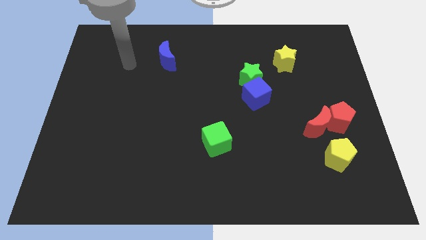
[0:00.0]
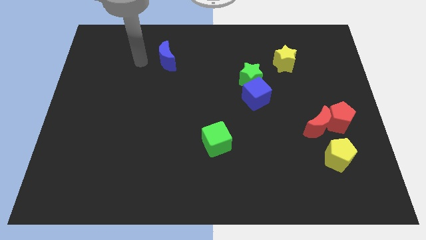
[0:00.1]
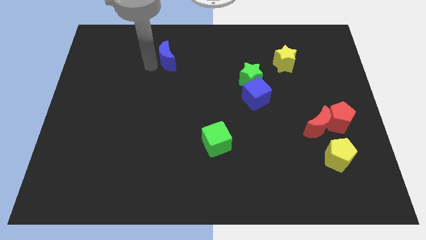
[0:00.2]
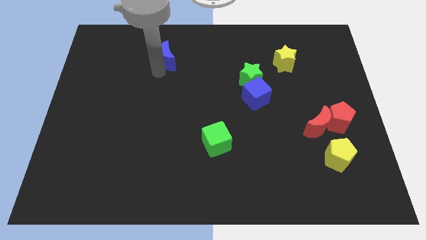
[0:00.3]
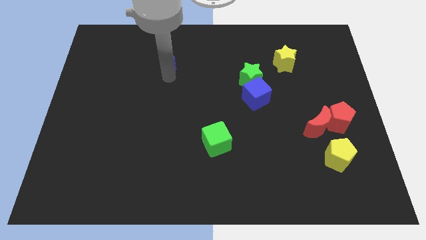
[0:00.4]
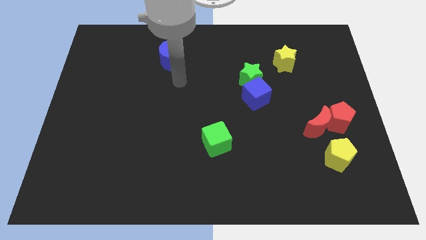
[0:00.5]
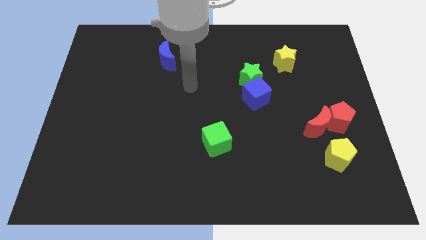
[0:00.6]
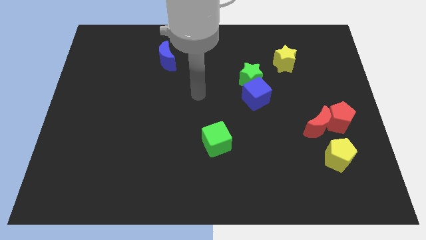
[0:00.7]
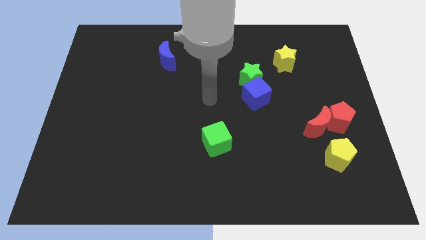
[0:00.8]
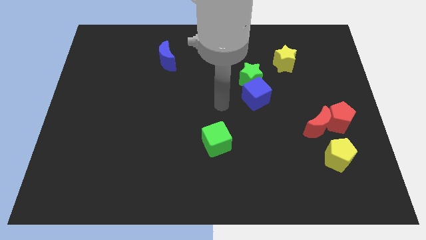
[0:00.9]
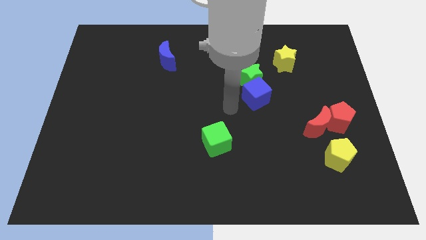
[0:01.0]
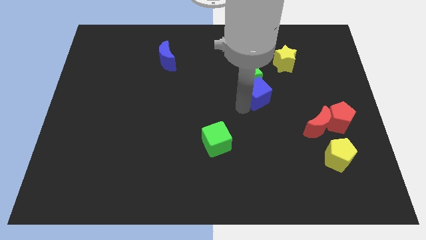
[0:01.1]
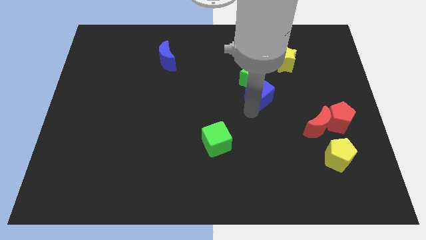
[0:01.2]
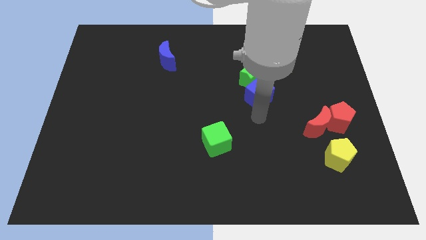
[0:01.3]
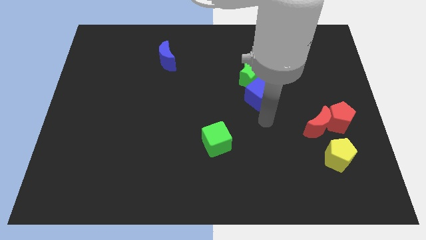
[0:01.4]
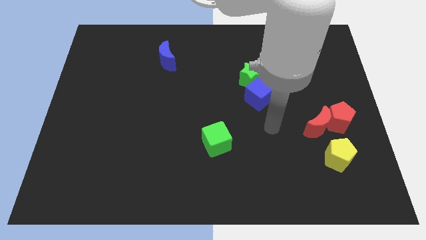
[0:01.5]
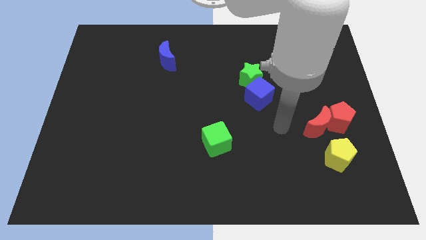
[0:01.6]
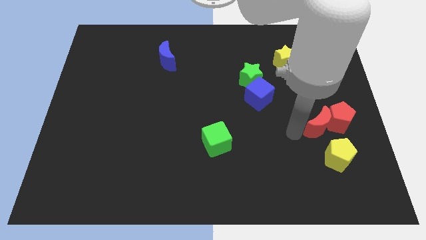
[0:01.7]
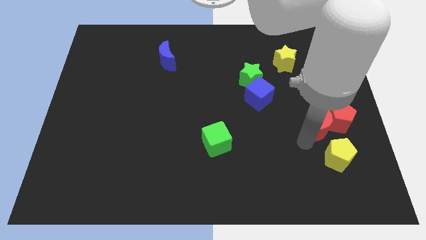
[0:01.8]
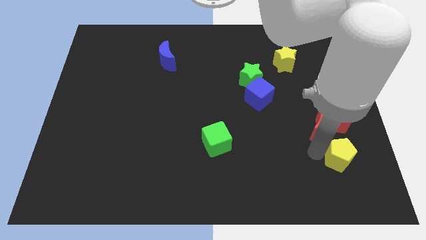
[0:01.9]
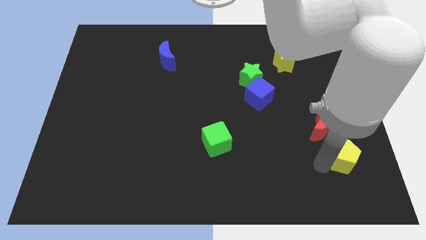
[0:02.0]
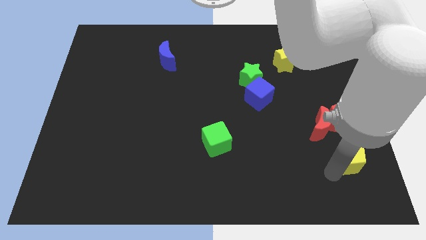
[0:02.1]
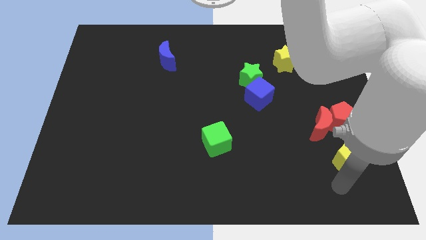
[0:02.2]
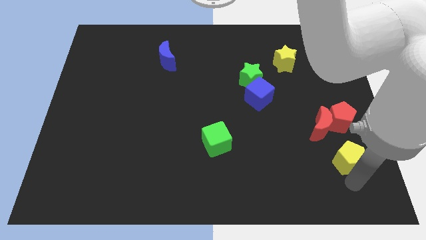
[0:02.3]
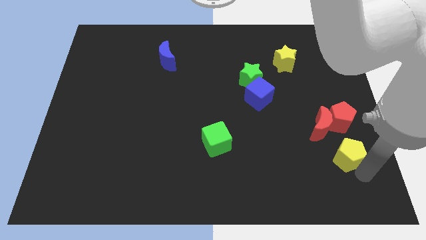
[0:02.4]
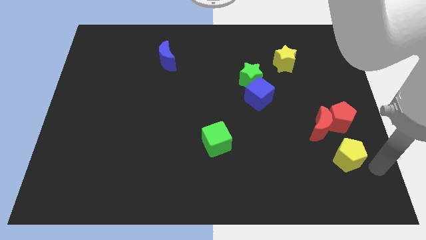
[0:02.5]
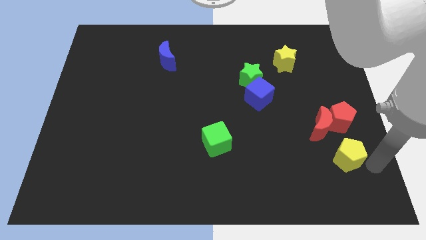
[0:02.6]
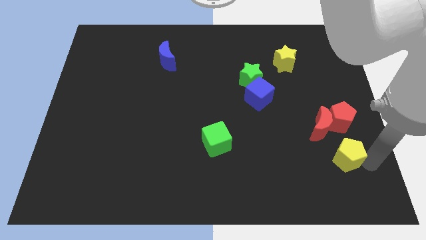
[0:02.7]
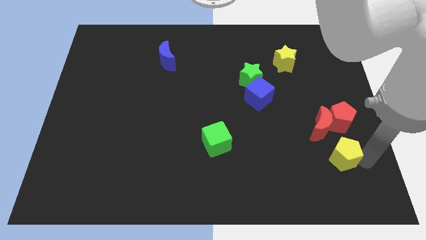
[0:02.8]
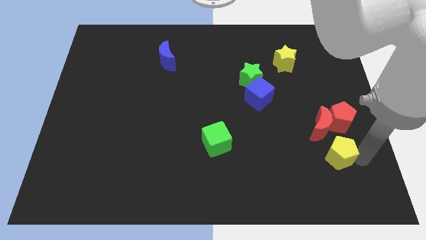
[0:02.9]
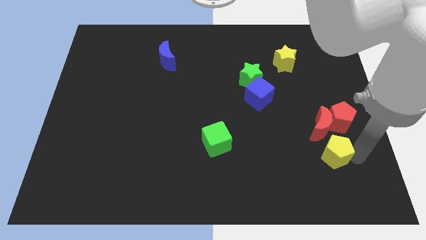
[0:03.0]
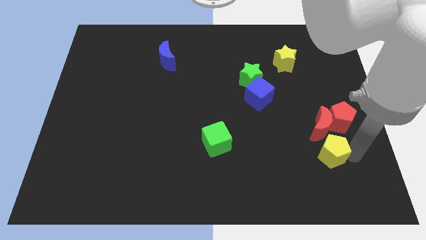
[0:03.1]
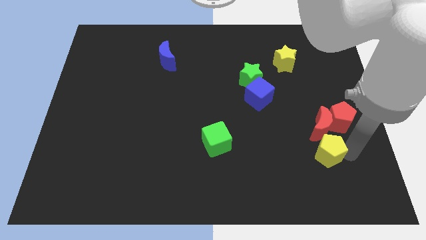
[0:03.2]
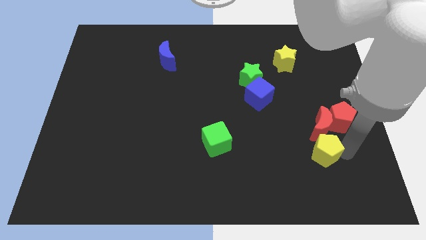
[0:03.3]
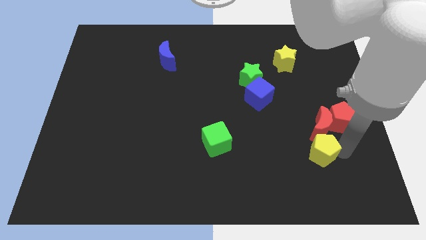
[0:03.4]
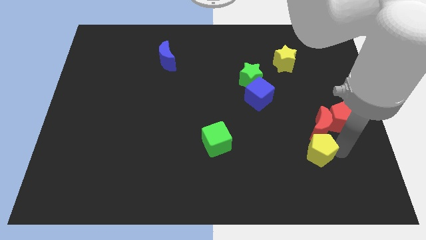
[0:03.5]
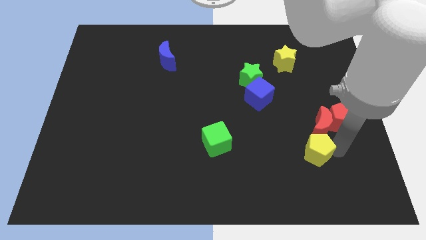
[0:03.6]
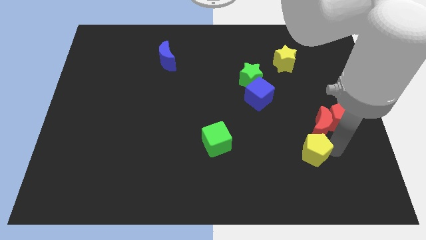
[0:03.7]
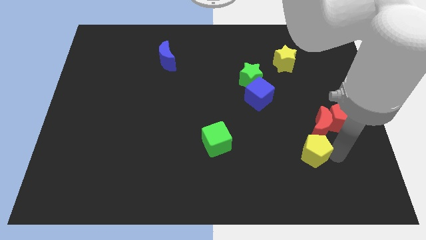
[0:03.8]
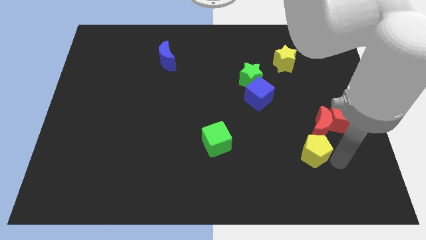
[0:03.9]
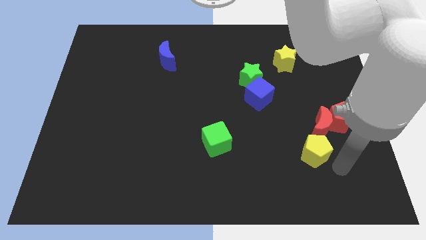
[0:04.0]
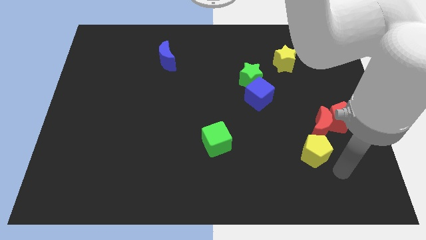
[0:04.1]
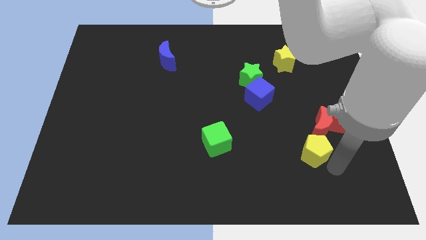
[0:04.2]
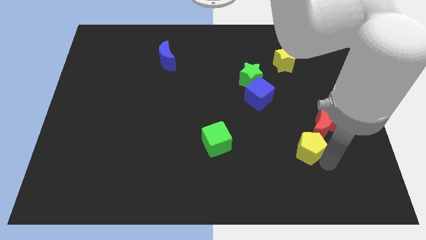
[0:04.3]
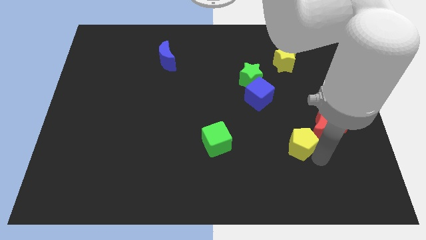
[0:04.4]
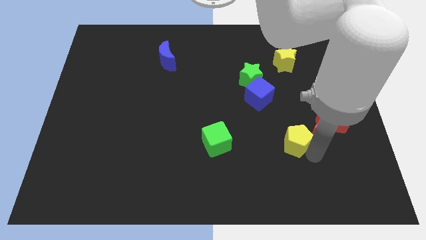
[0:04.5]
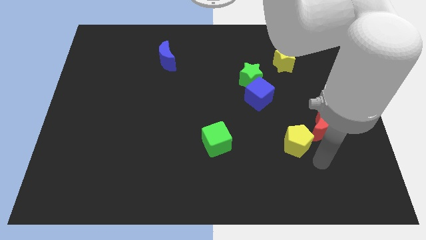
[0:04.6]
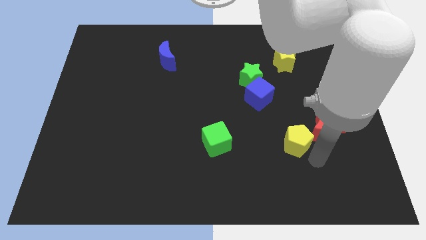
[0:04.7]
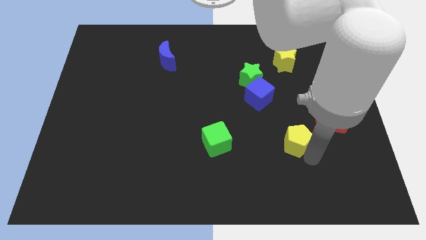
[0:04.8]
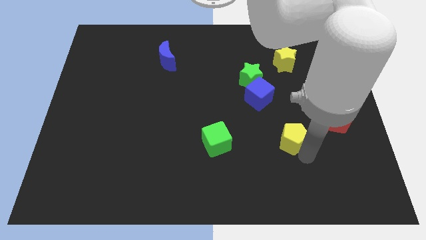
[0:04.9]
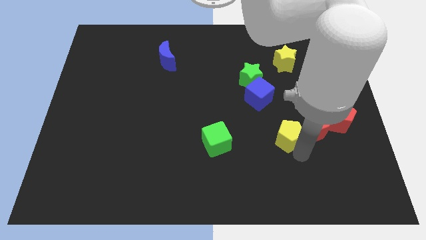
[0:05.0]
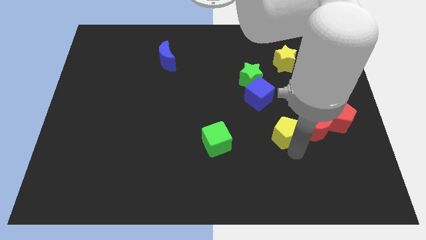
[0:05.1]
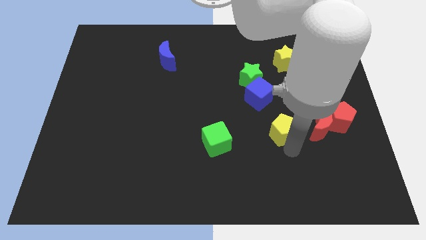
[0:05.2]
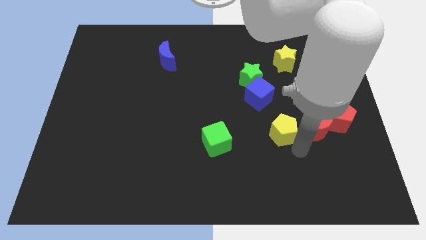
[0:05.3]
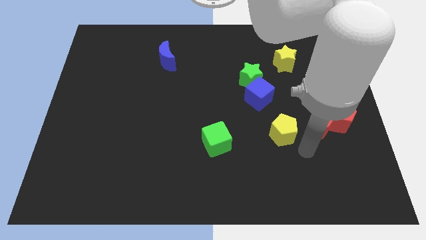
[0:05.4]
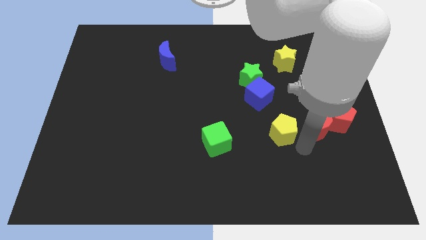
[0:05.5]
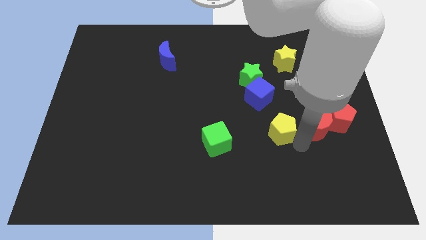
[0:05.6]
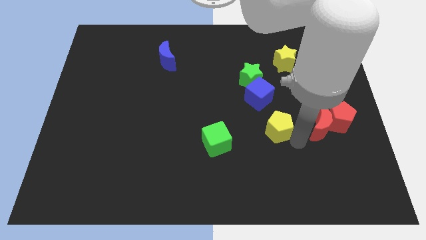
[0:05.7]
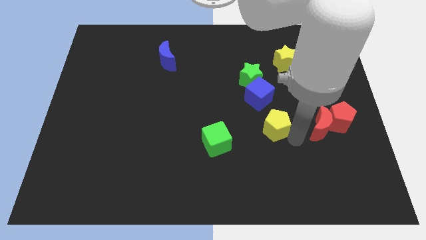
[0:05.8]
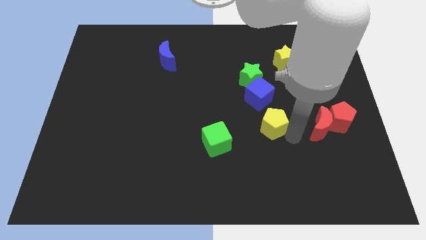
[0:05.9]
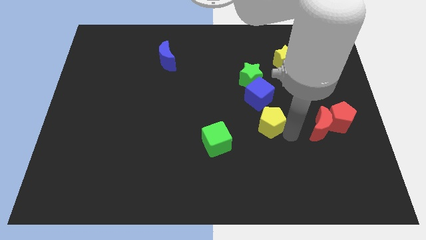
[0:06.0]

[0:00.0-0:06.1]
put the yellow pentagon below the green star

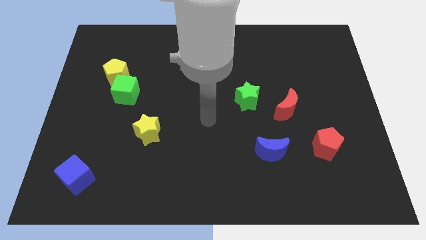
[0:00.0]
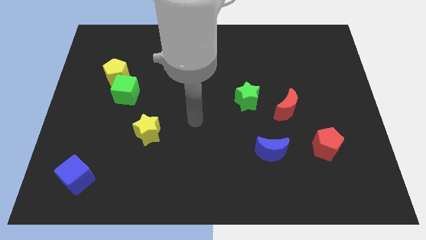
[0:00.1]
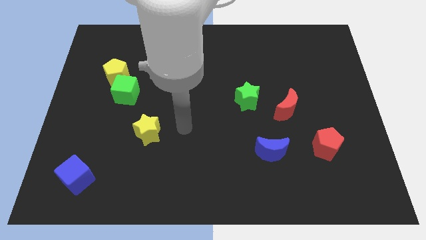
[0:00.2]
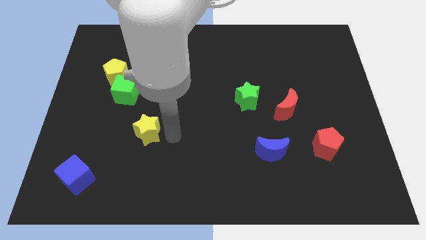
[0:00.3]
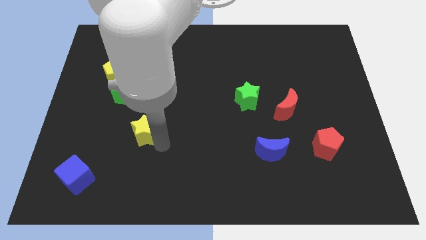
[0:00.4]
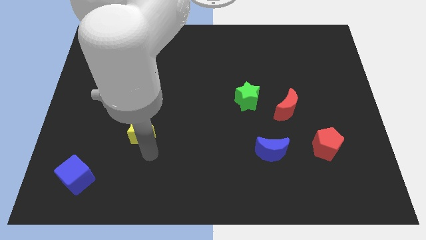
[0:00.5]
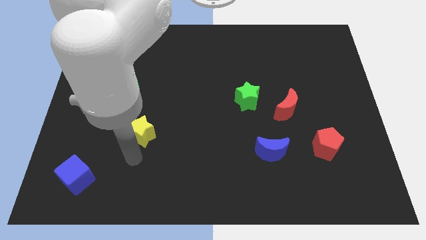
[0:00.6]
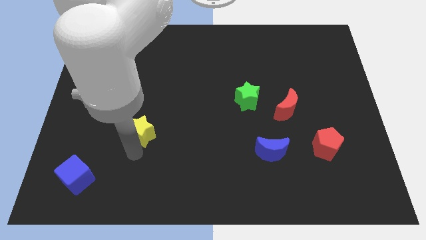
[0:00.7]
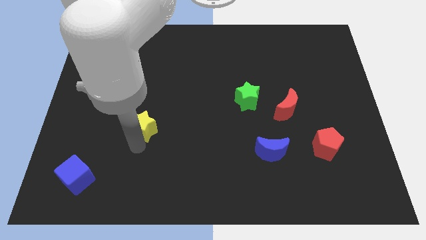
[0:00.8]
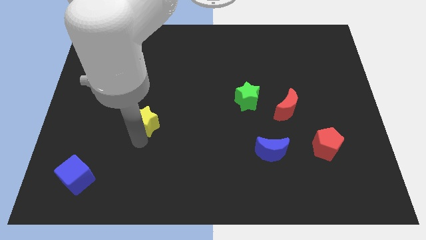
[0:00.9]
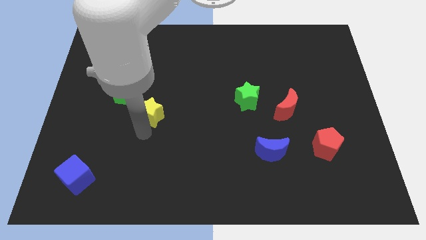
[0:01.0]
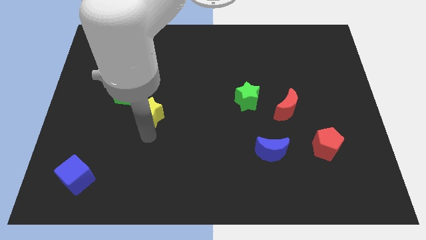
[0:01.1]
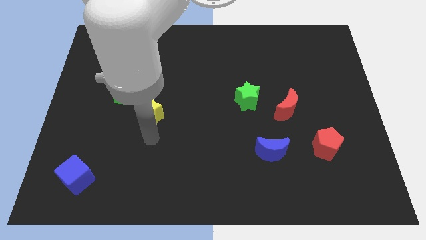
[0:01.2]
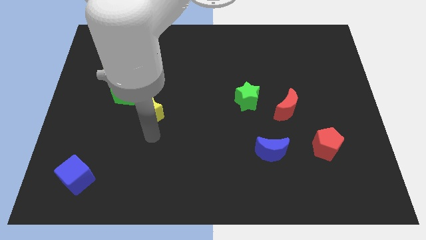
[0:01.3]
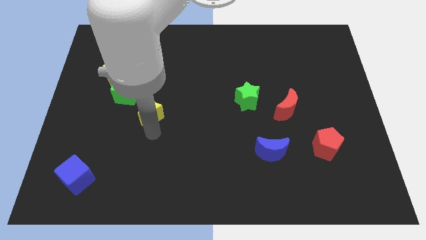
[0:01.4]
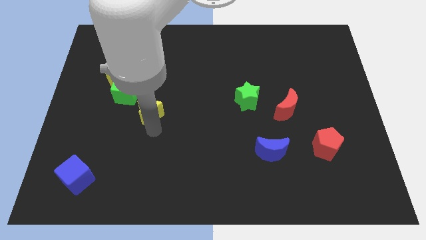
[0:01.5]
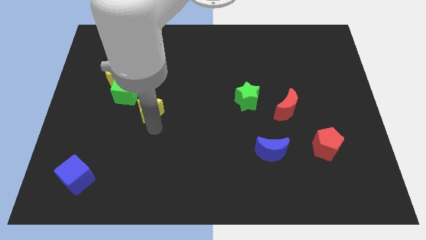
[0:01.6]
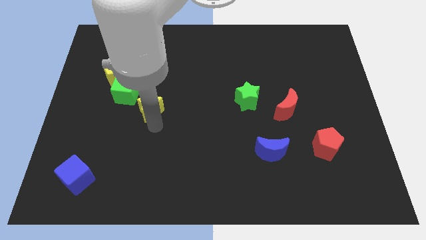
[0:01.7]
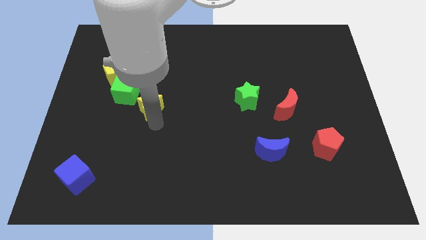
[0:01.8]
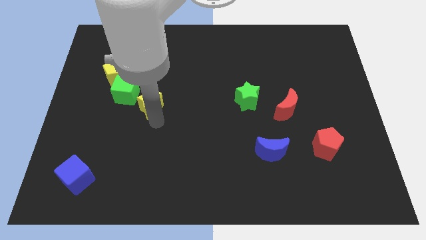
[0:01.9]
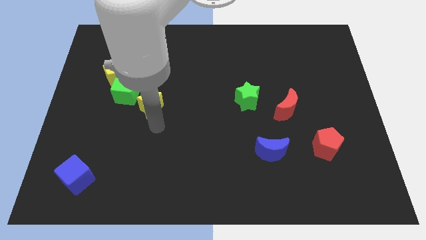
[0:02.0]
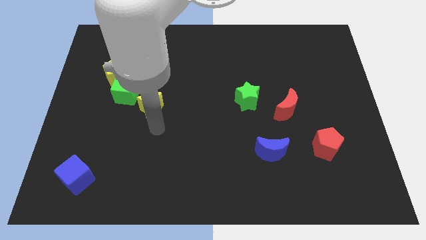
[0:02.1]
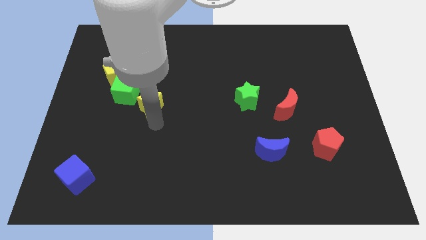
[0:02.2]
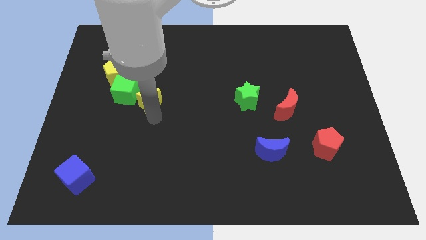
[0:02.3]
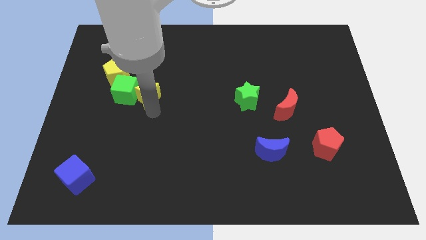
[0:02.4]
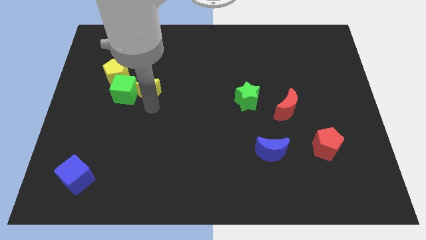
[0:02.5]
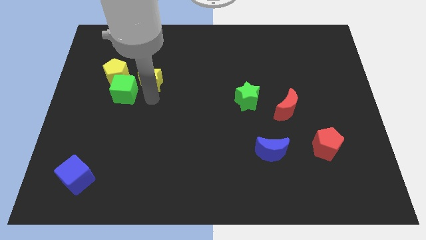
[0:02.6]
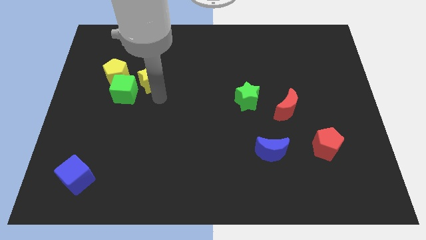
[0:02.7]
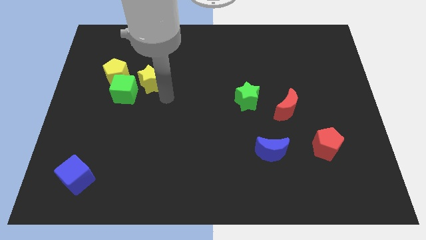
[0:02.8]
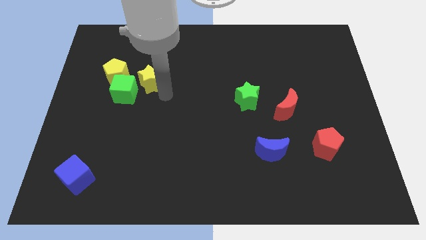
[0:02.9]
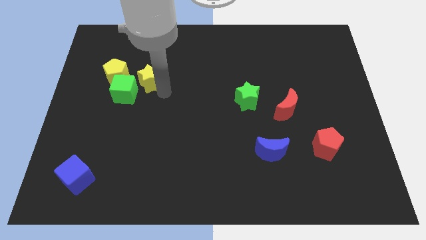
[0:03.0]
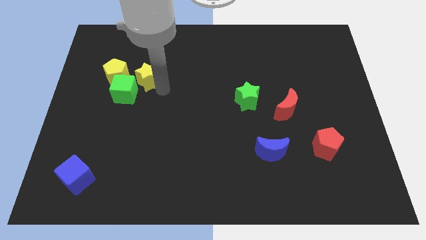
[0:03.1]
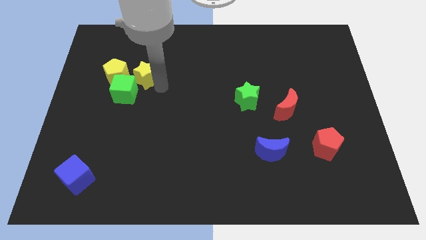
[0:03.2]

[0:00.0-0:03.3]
move the yellow star to the top side of the green cube
